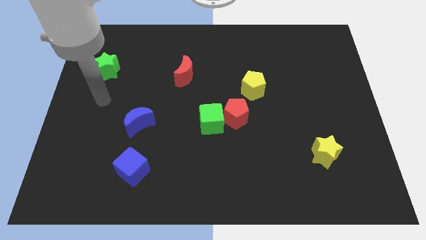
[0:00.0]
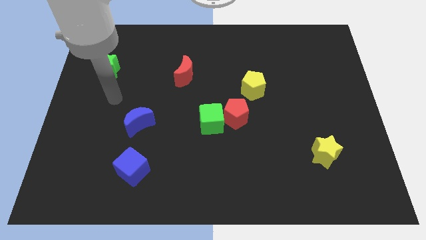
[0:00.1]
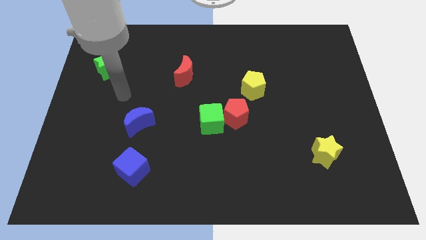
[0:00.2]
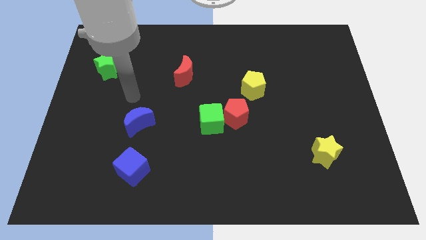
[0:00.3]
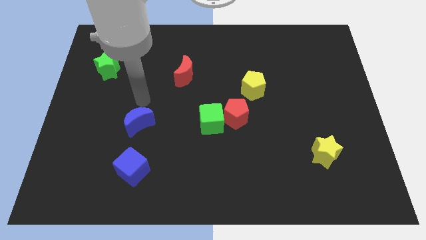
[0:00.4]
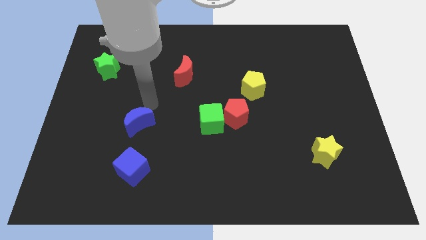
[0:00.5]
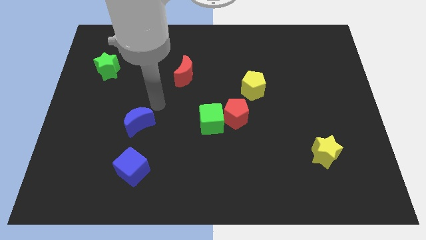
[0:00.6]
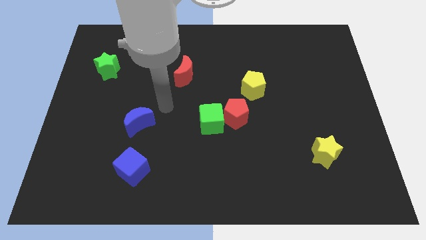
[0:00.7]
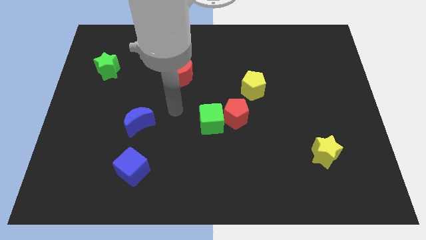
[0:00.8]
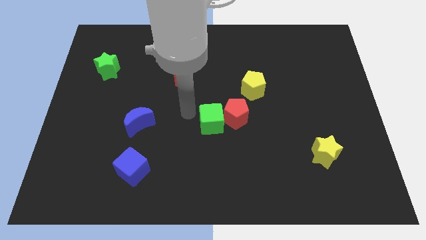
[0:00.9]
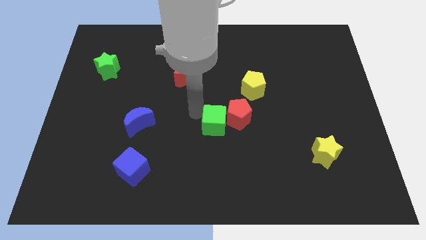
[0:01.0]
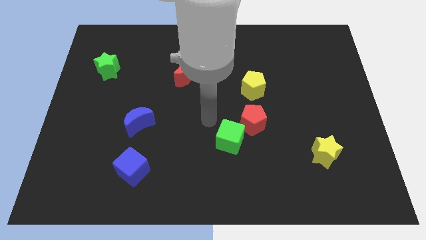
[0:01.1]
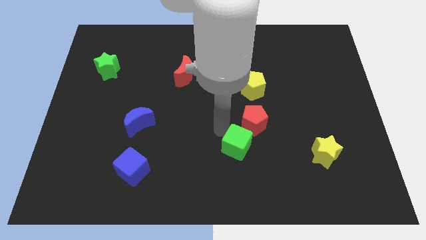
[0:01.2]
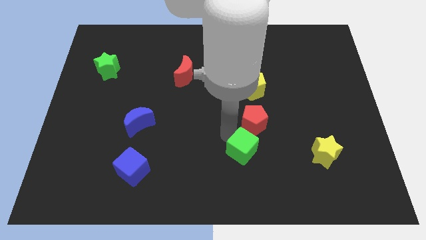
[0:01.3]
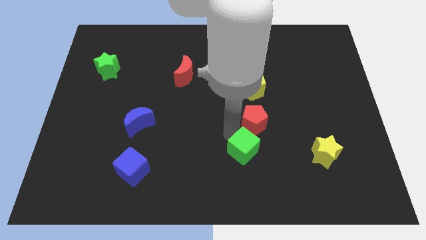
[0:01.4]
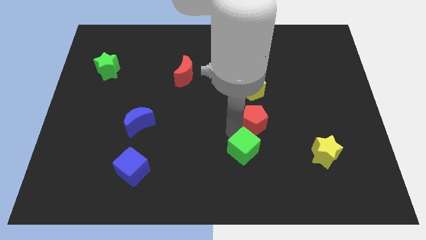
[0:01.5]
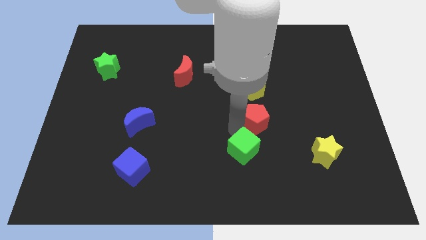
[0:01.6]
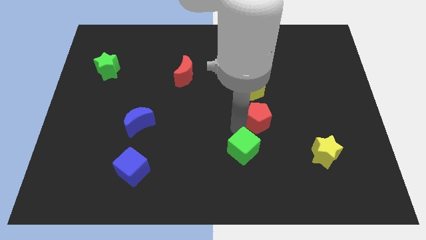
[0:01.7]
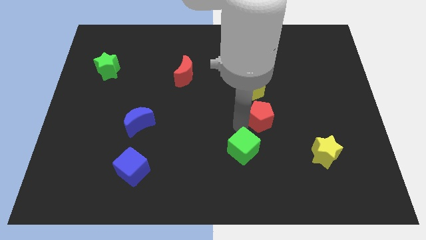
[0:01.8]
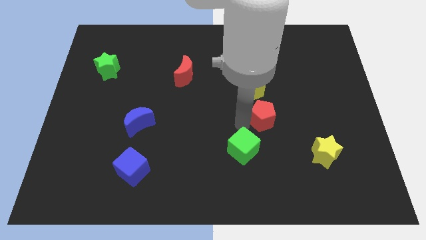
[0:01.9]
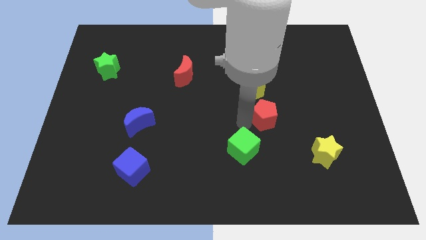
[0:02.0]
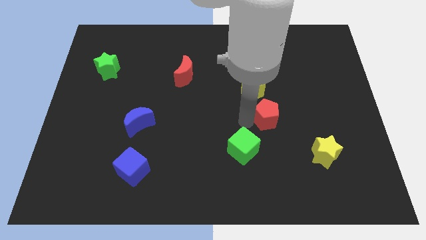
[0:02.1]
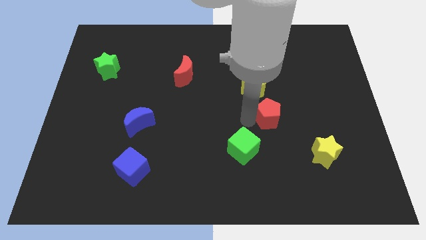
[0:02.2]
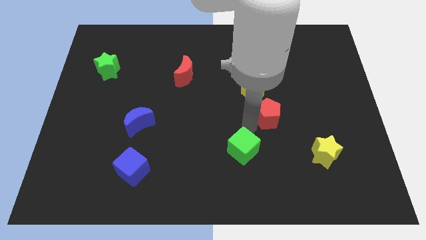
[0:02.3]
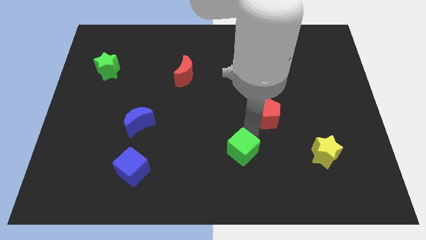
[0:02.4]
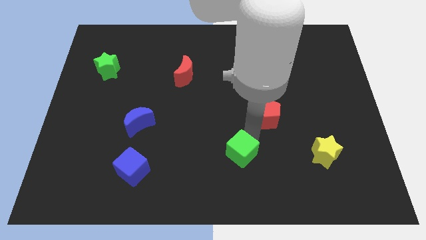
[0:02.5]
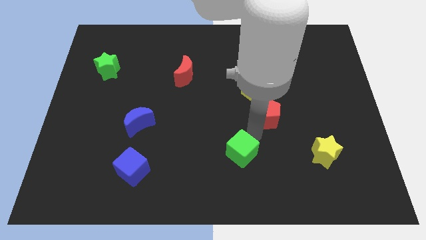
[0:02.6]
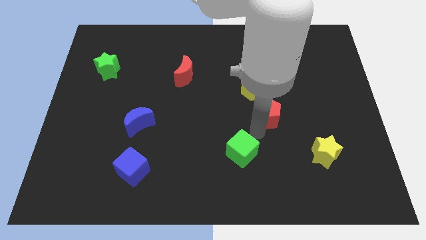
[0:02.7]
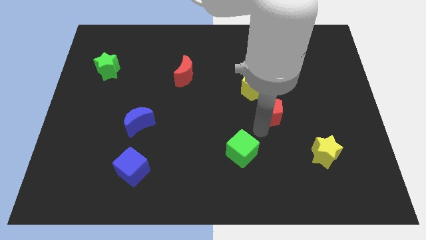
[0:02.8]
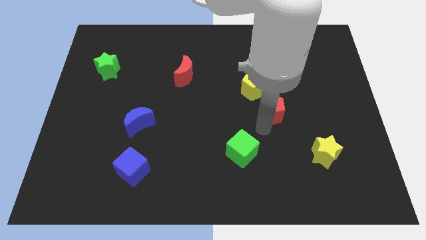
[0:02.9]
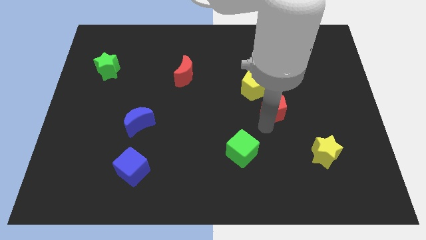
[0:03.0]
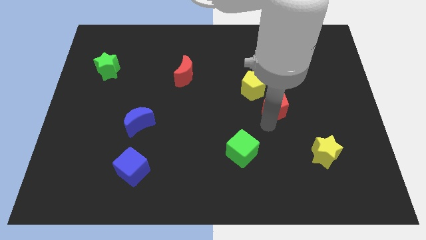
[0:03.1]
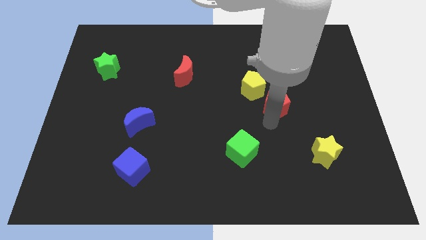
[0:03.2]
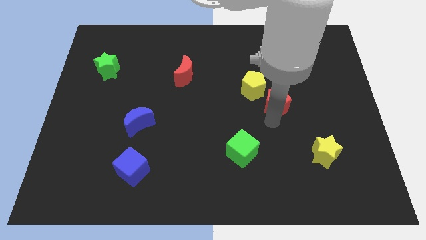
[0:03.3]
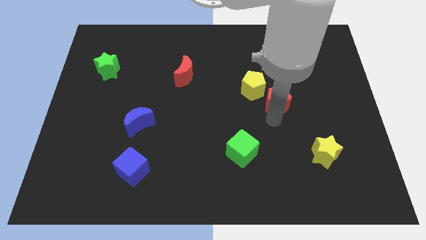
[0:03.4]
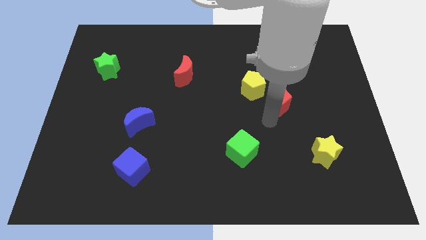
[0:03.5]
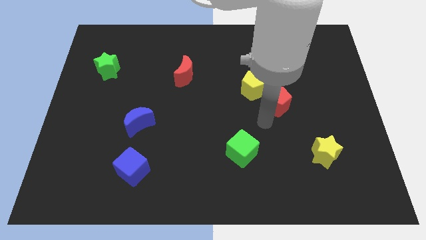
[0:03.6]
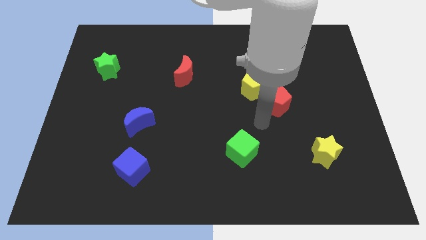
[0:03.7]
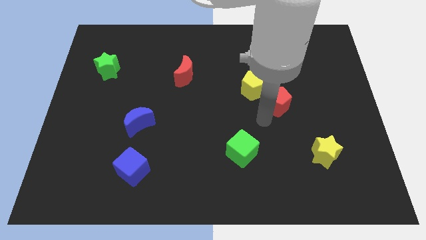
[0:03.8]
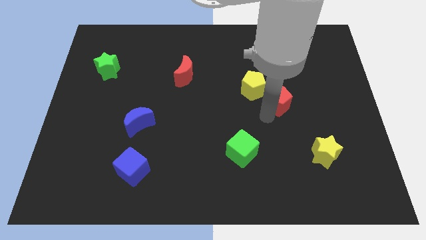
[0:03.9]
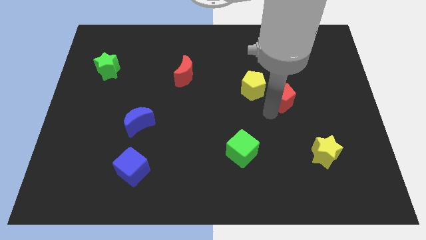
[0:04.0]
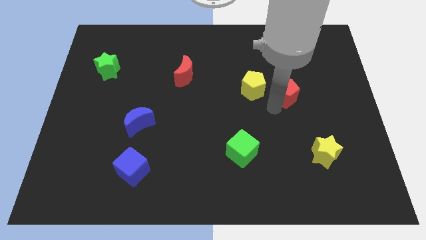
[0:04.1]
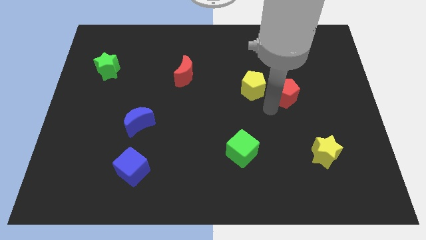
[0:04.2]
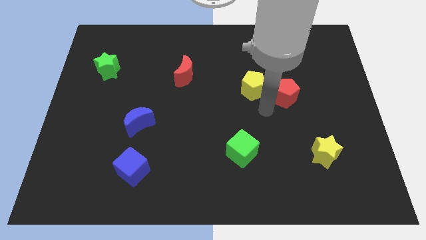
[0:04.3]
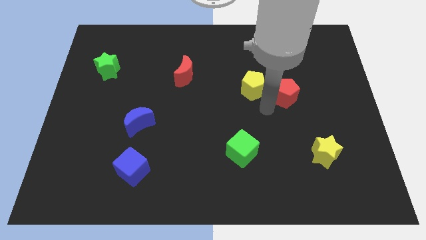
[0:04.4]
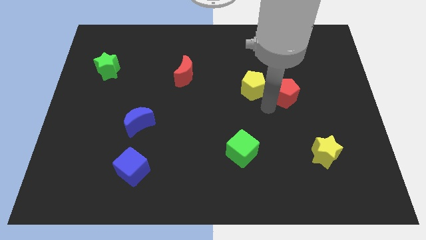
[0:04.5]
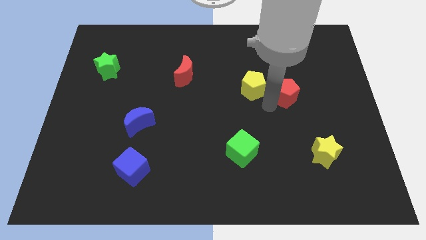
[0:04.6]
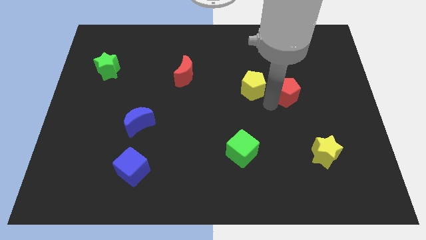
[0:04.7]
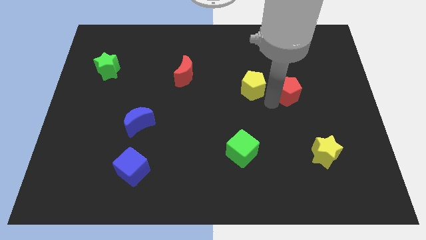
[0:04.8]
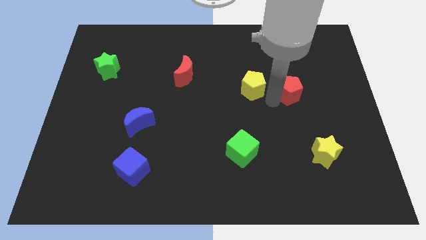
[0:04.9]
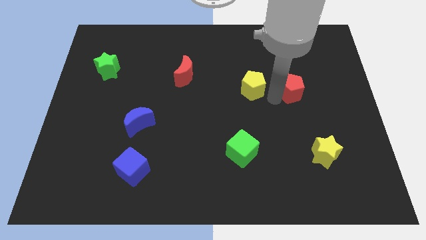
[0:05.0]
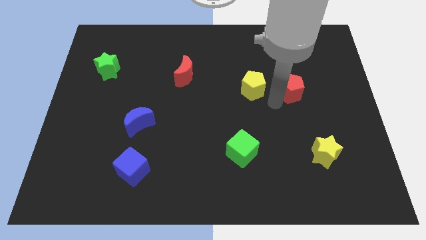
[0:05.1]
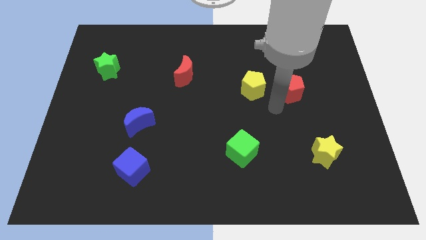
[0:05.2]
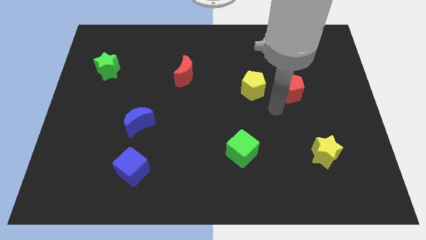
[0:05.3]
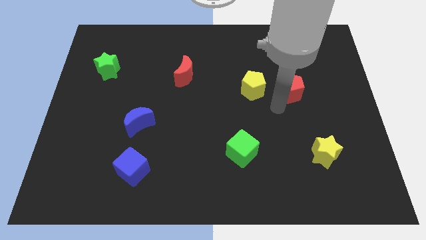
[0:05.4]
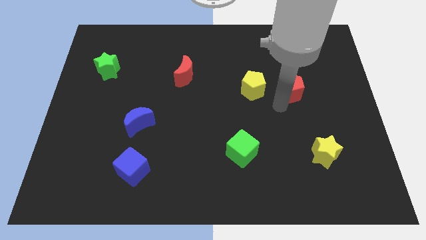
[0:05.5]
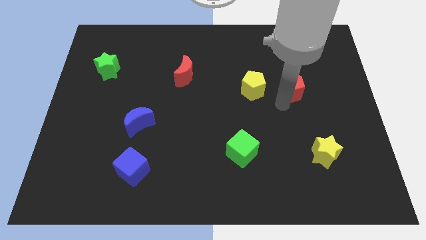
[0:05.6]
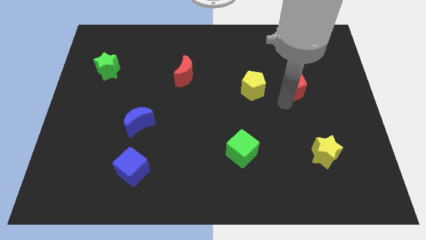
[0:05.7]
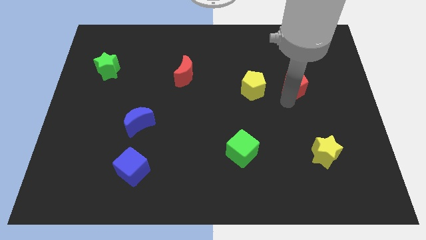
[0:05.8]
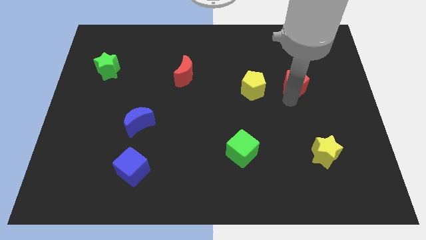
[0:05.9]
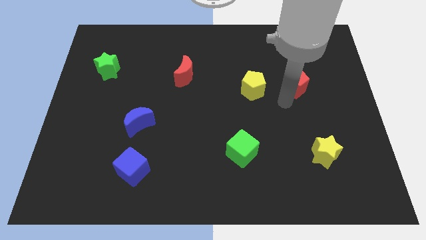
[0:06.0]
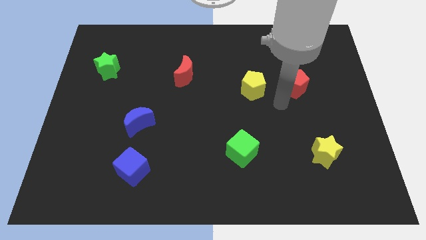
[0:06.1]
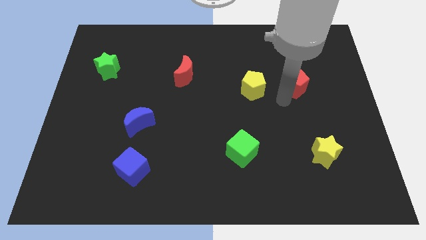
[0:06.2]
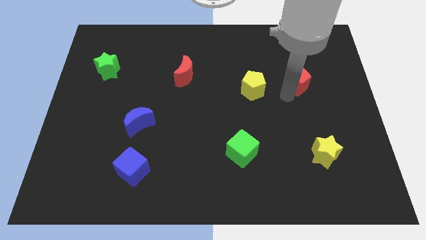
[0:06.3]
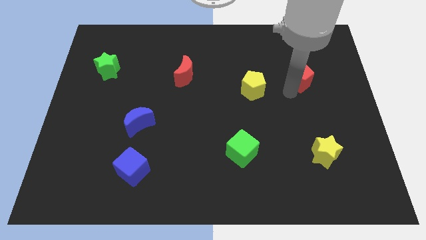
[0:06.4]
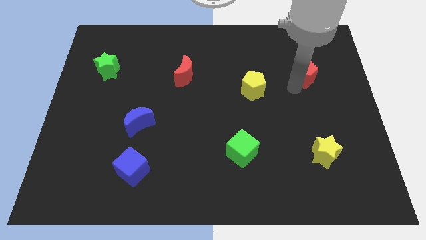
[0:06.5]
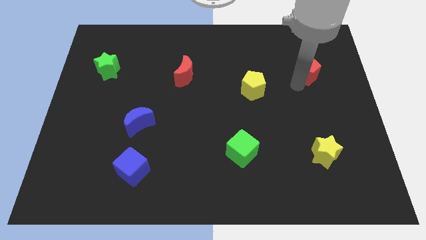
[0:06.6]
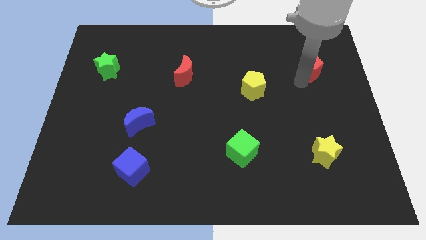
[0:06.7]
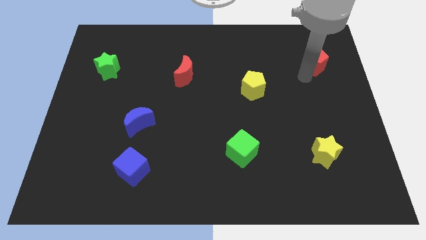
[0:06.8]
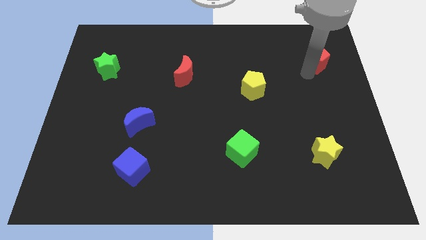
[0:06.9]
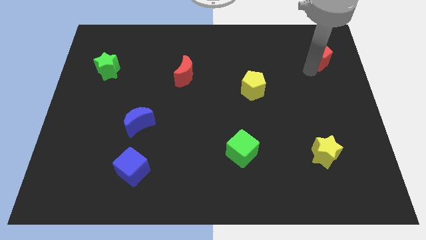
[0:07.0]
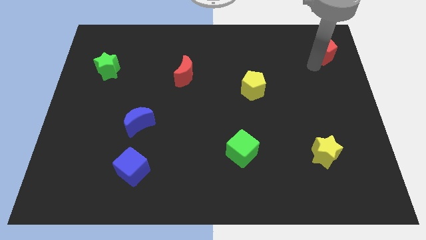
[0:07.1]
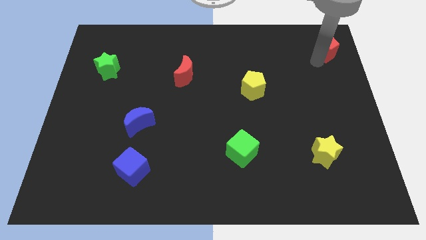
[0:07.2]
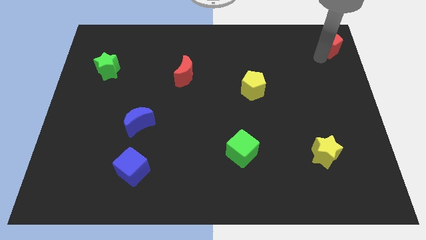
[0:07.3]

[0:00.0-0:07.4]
move the red pentagon to the upper right corner
